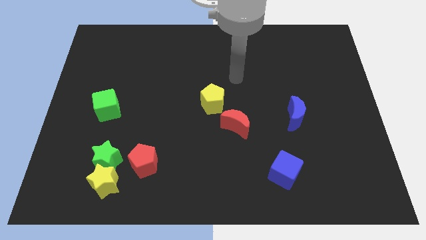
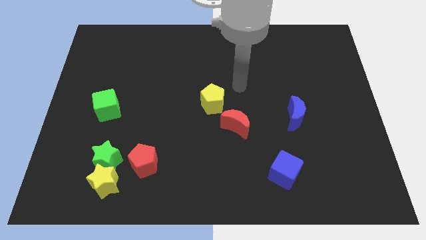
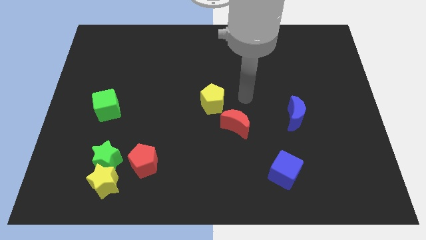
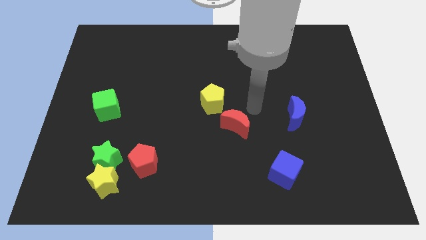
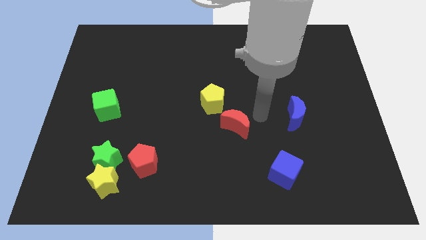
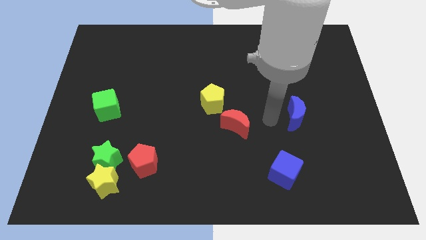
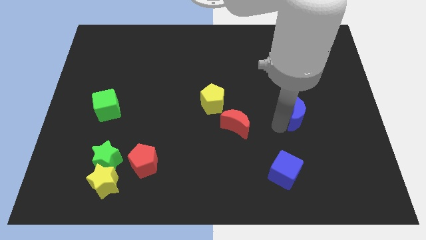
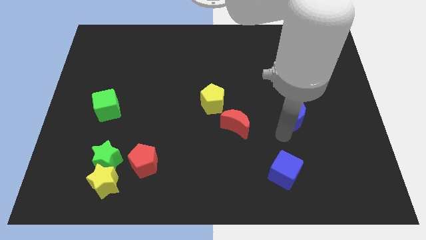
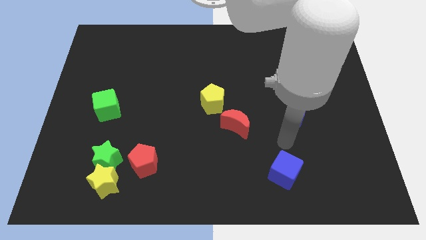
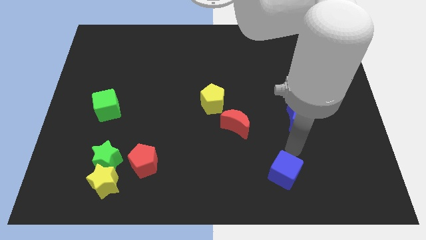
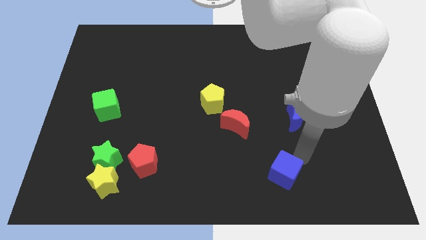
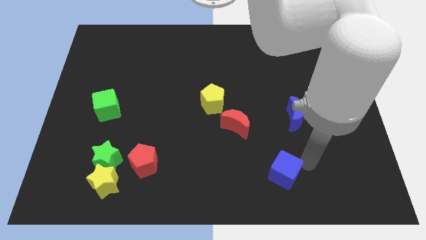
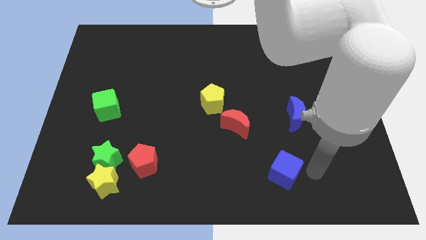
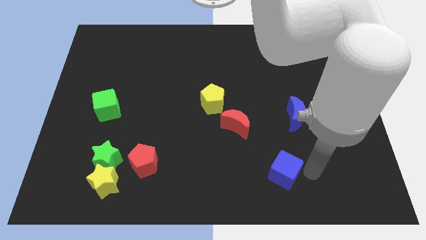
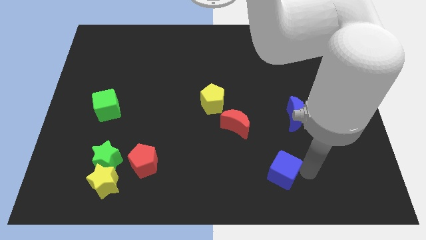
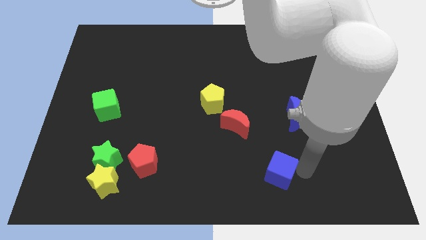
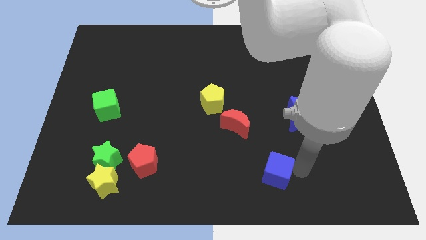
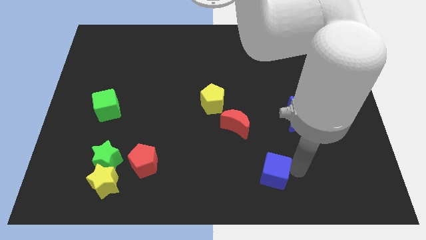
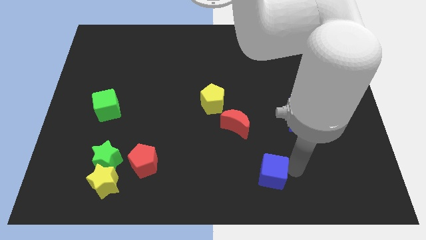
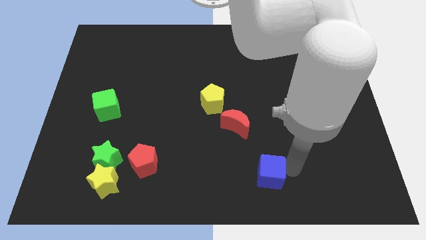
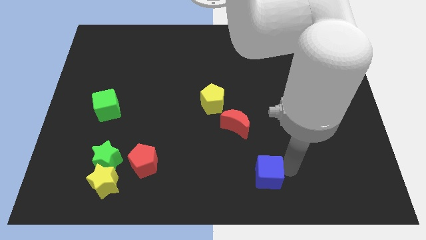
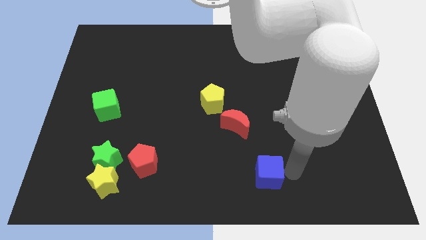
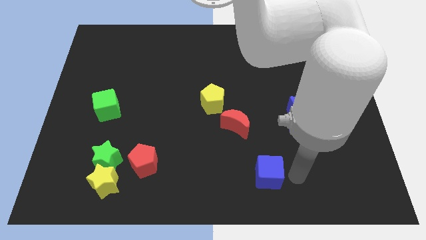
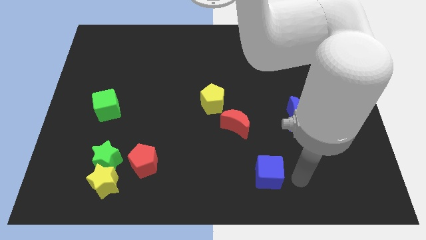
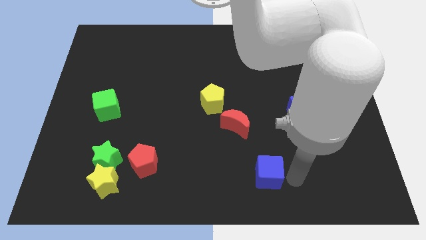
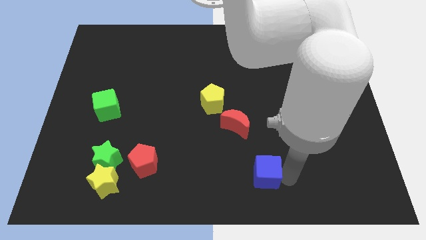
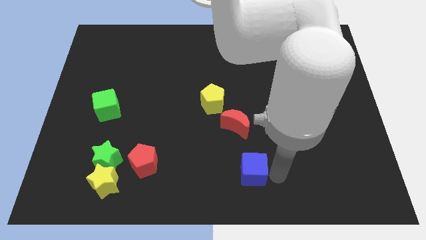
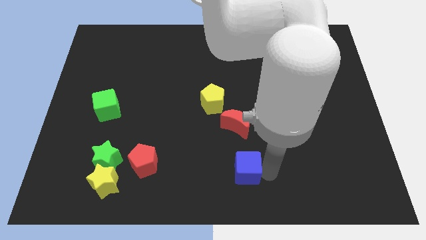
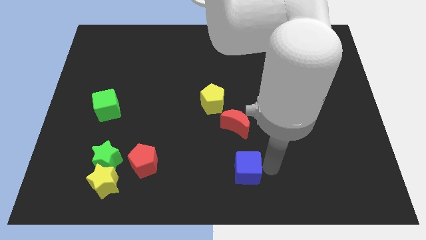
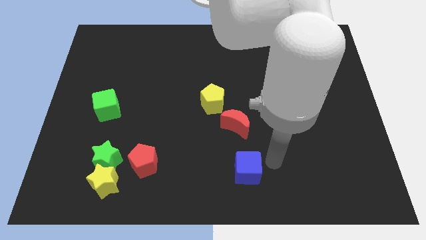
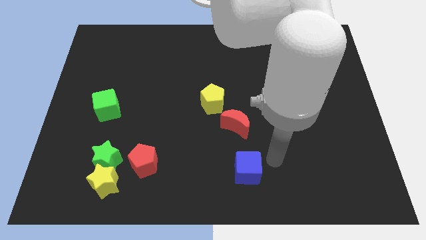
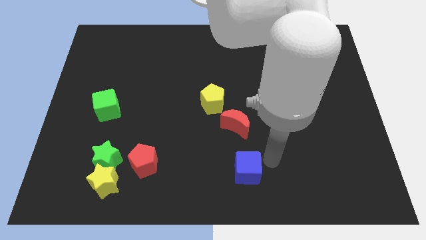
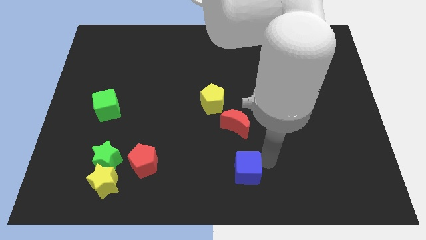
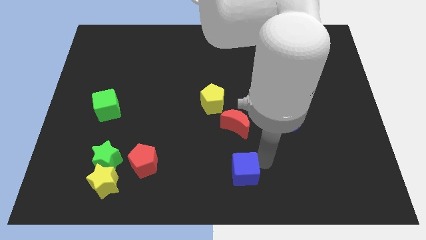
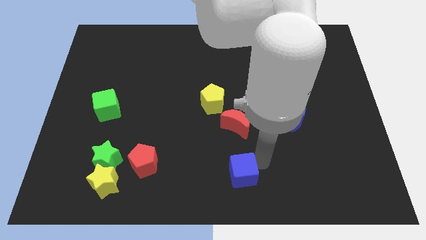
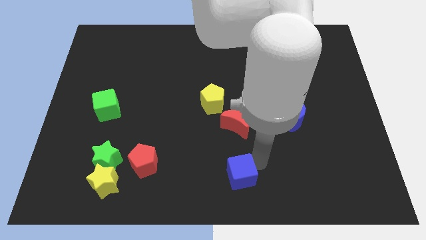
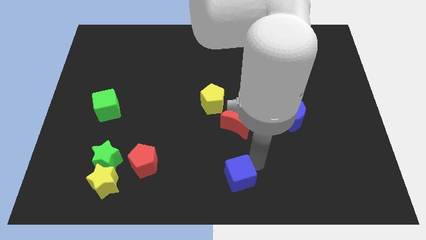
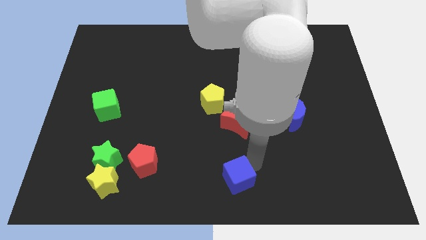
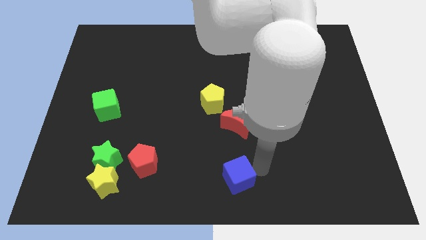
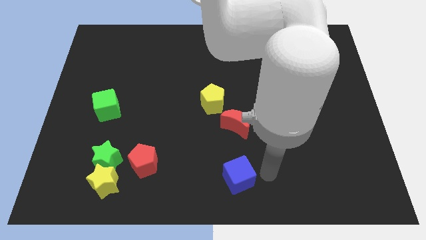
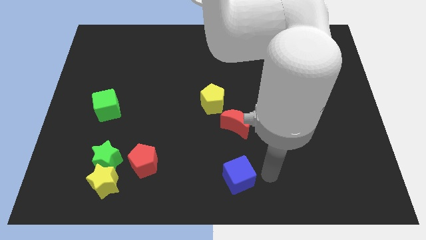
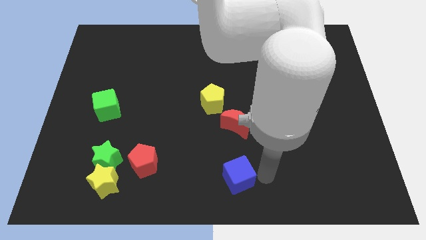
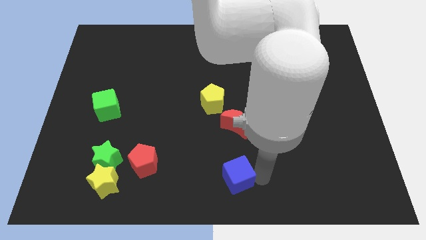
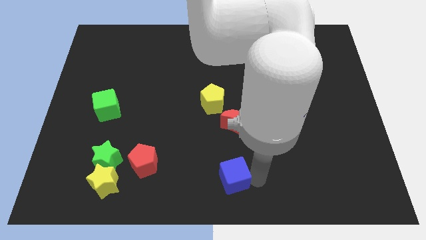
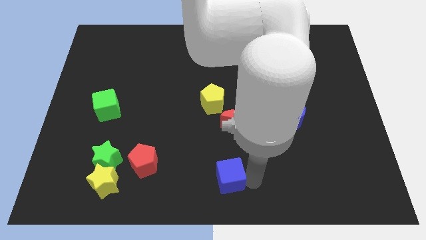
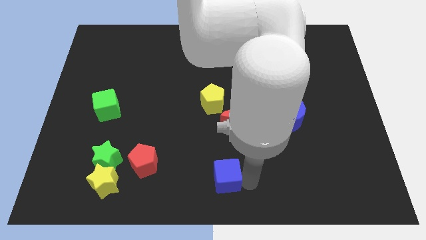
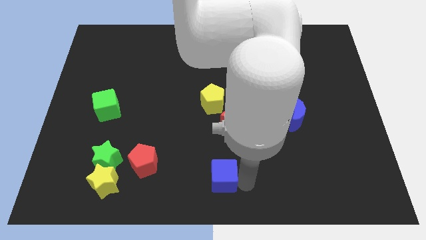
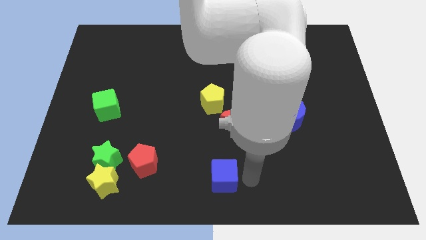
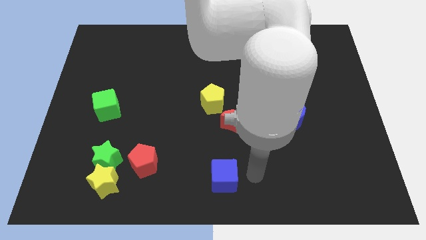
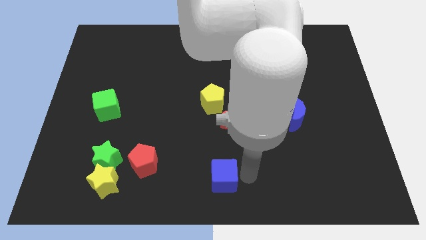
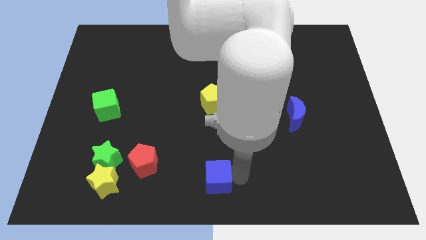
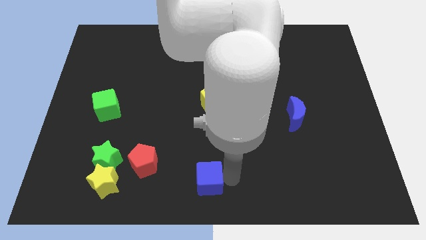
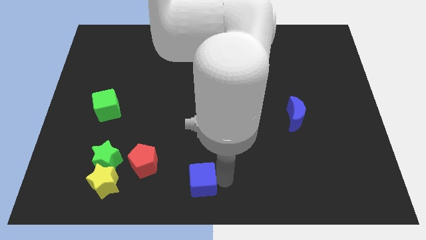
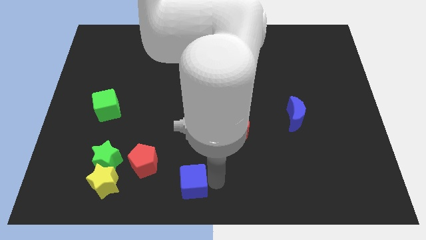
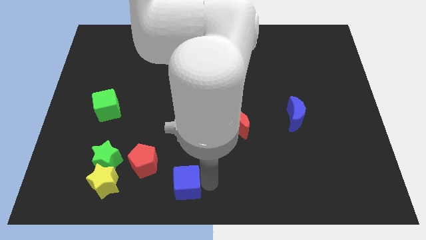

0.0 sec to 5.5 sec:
slide the blue cube to the right of the yellow star

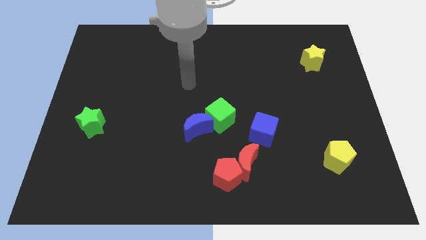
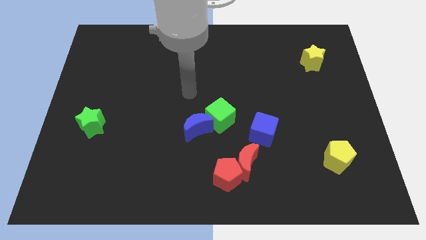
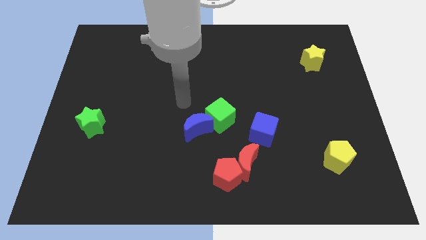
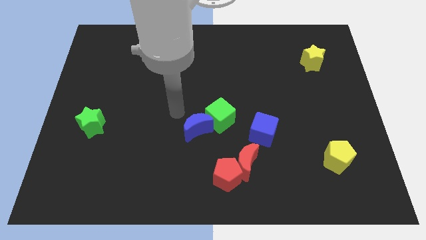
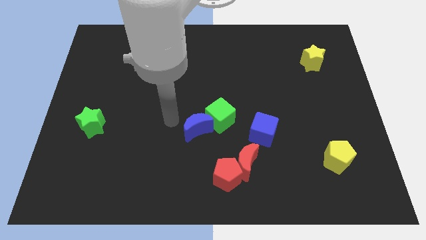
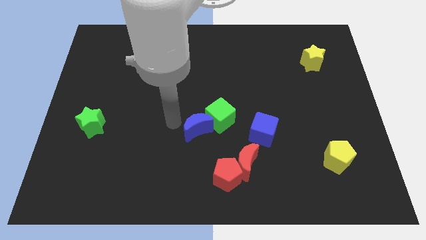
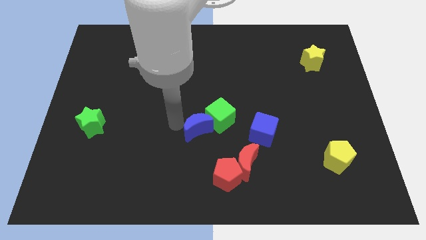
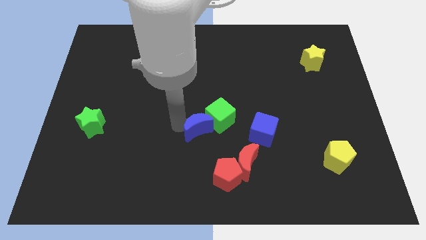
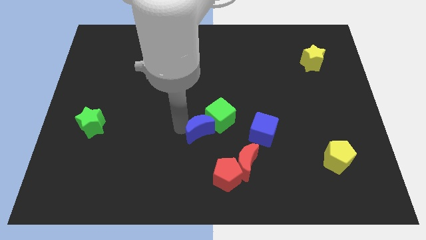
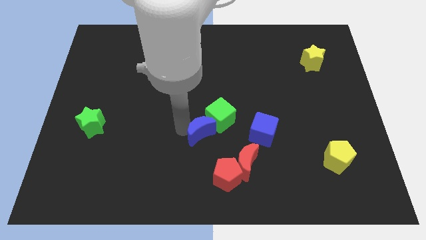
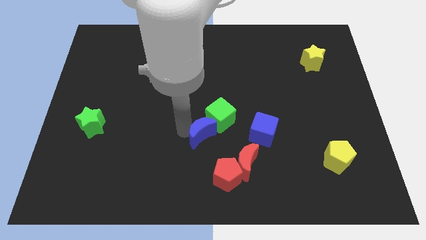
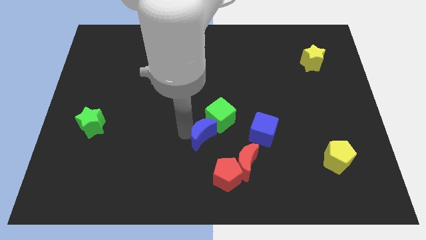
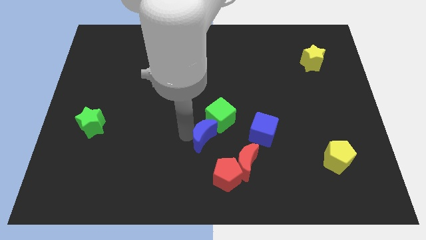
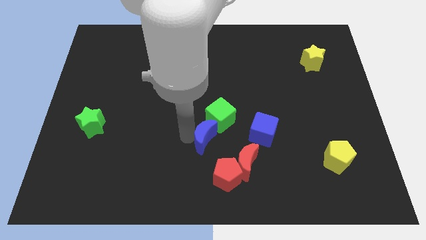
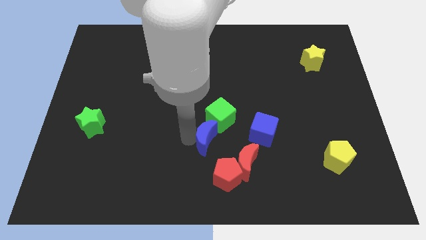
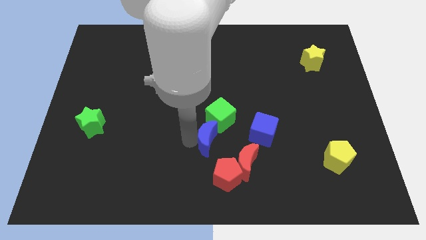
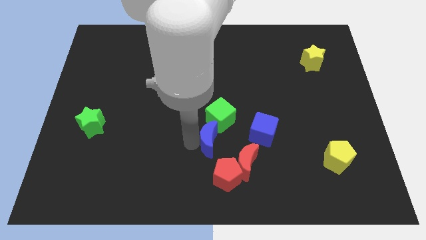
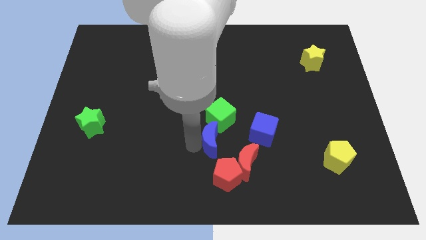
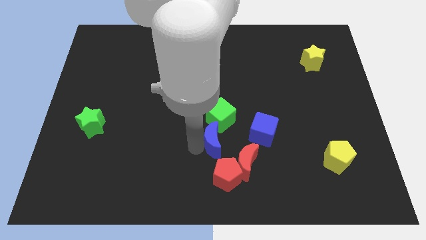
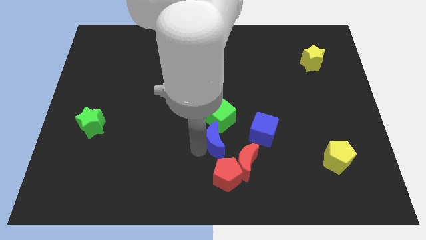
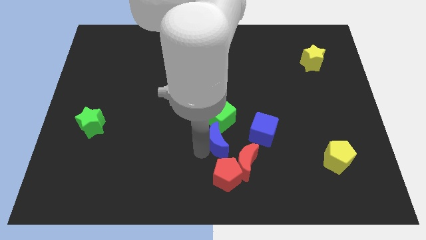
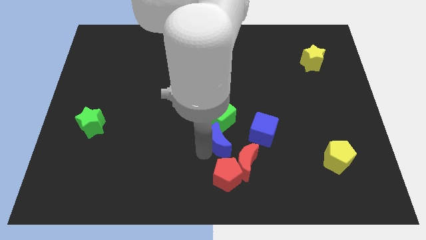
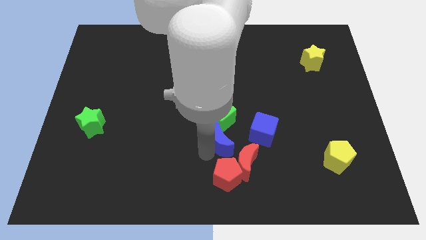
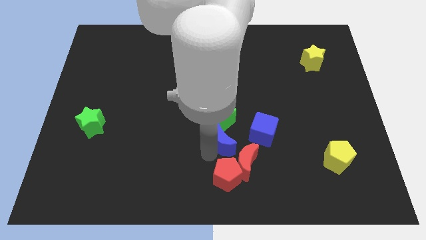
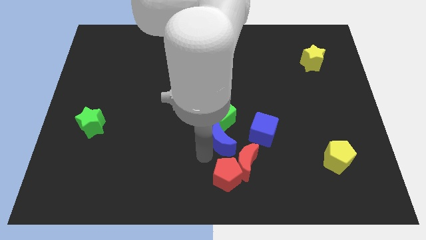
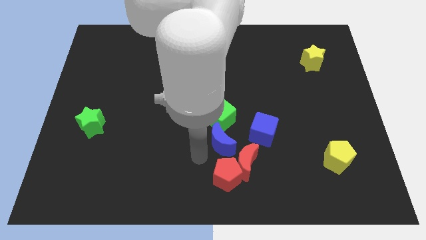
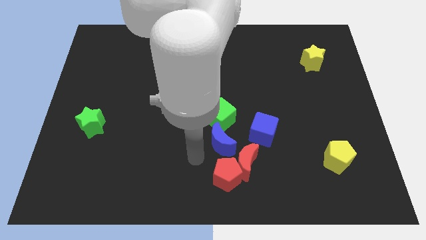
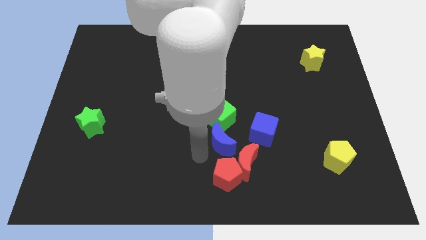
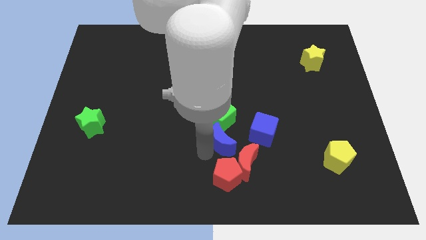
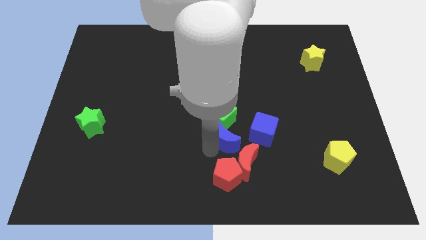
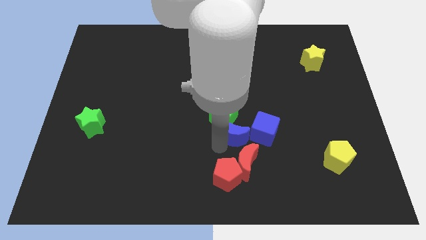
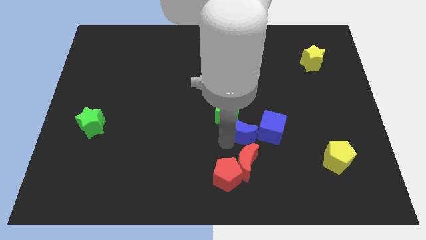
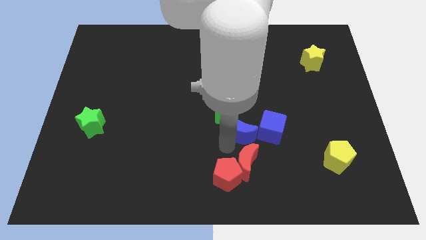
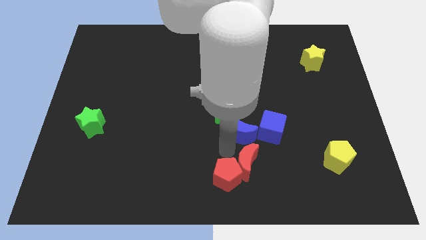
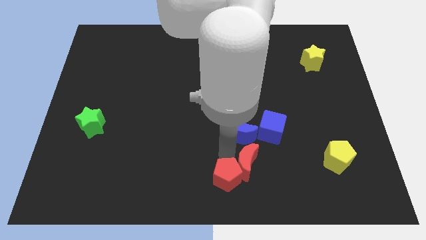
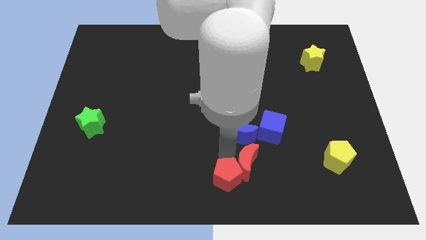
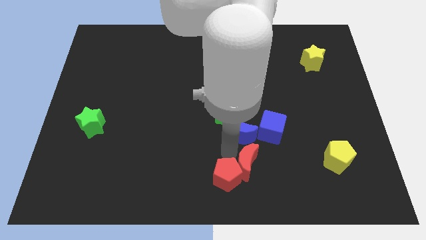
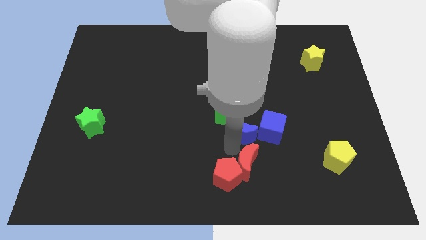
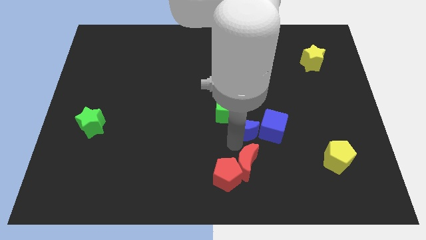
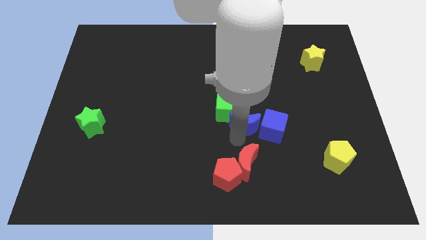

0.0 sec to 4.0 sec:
put the blue moon just right of the green cube
